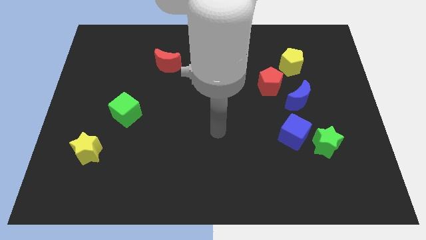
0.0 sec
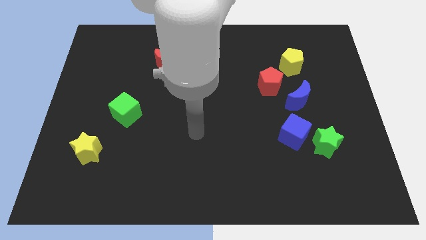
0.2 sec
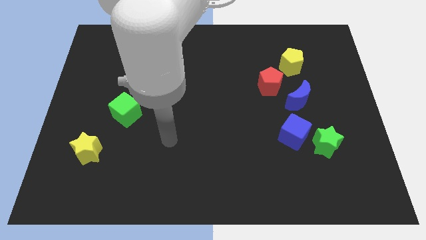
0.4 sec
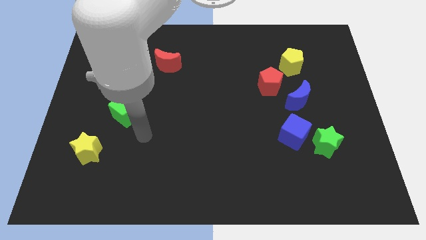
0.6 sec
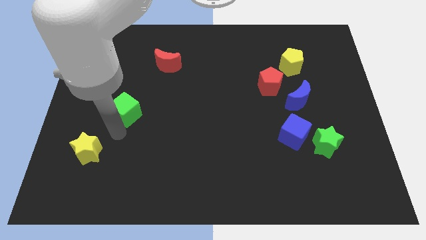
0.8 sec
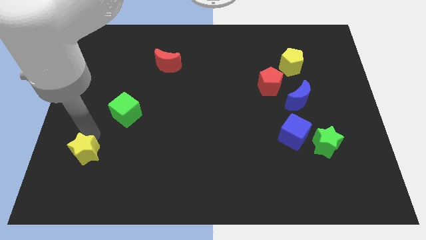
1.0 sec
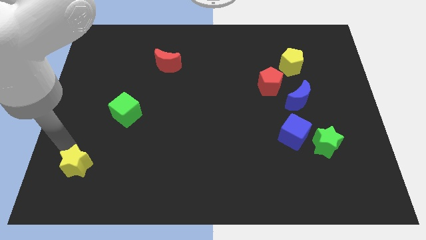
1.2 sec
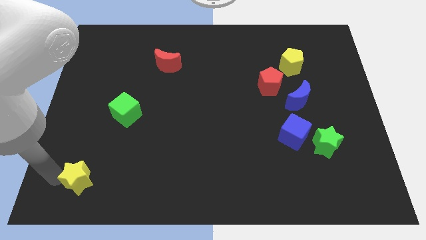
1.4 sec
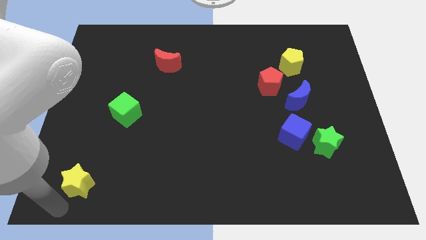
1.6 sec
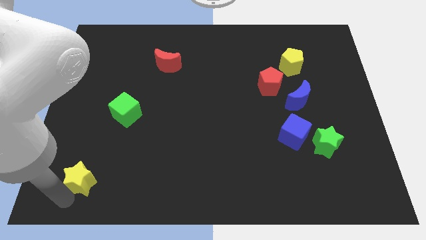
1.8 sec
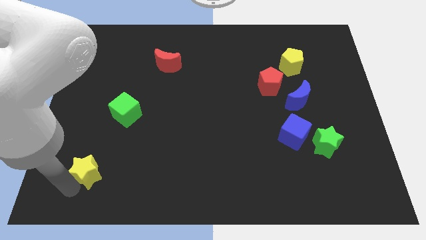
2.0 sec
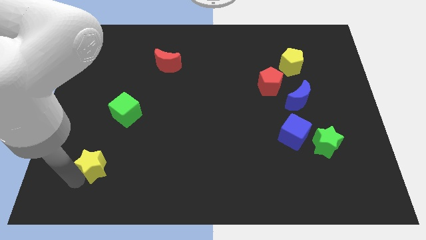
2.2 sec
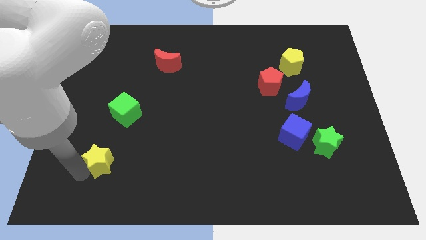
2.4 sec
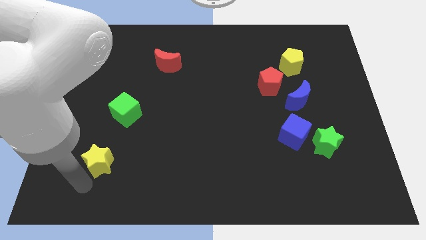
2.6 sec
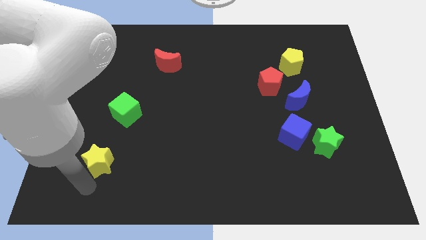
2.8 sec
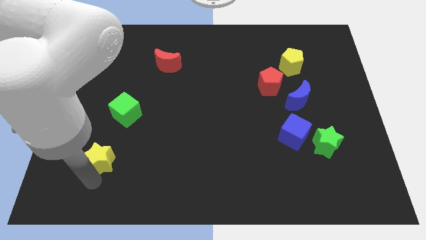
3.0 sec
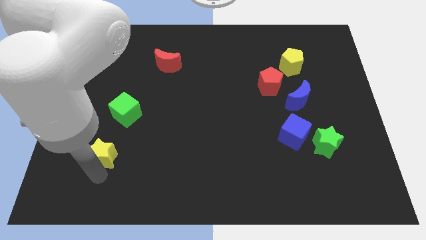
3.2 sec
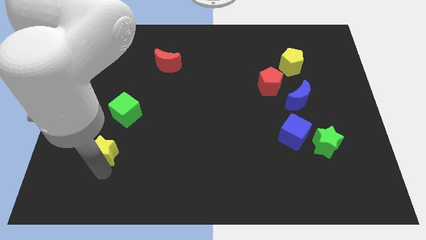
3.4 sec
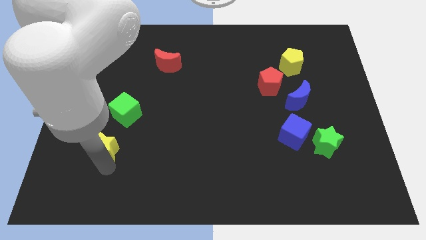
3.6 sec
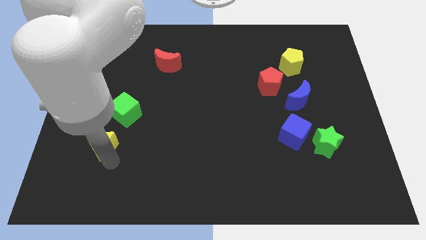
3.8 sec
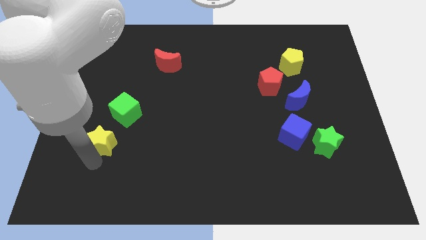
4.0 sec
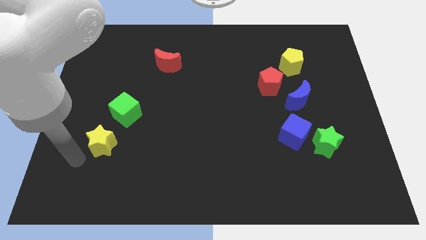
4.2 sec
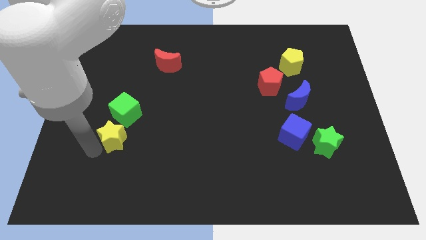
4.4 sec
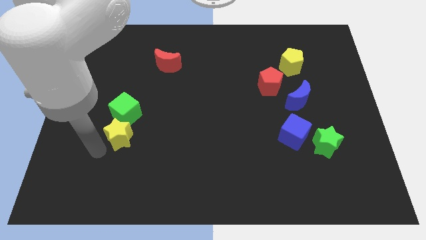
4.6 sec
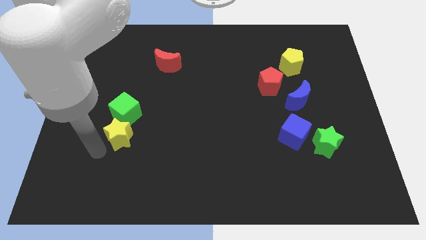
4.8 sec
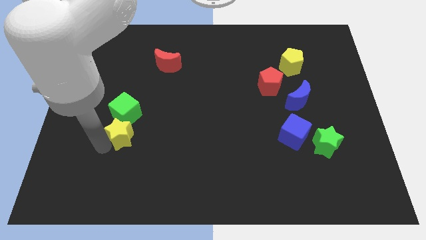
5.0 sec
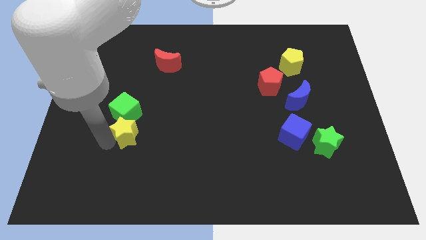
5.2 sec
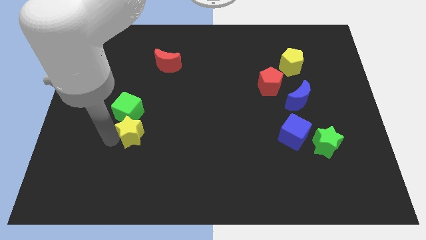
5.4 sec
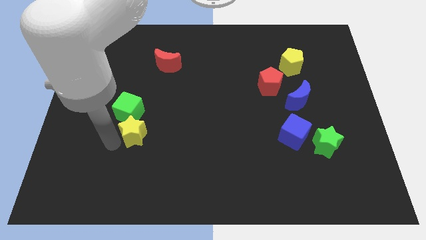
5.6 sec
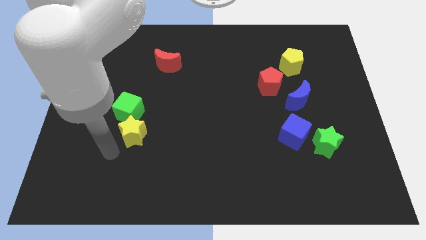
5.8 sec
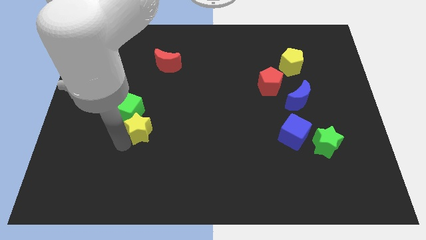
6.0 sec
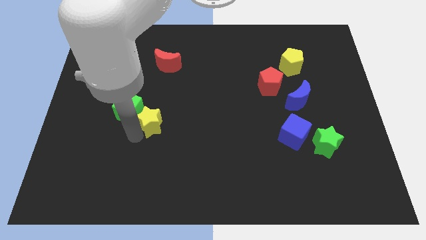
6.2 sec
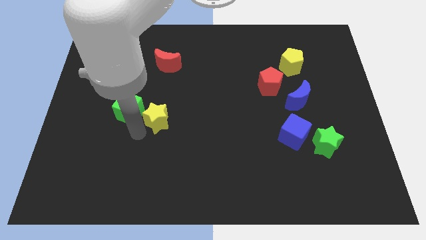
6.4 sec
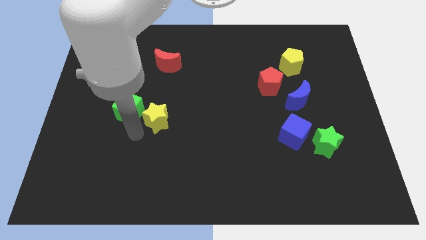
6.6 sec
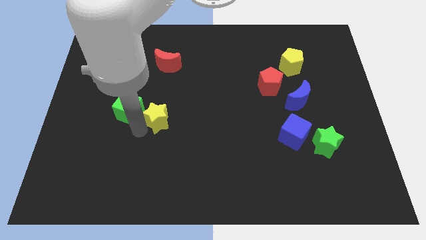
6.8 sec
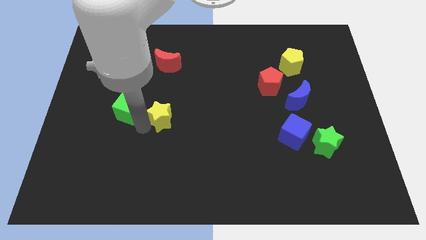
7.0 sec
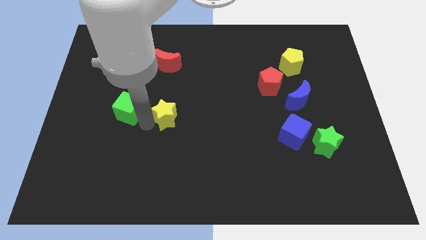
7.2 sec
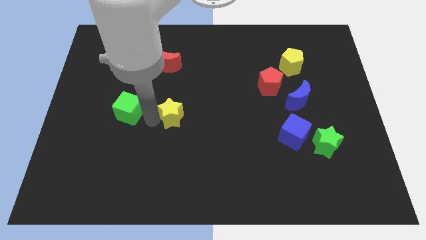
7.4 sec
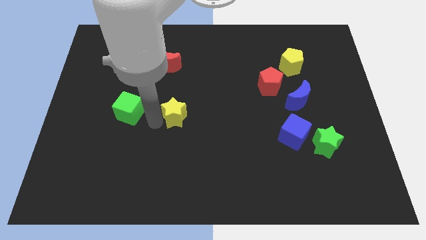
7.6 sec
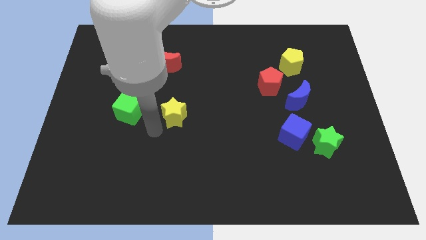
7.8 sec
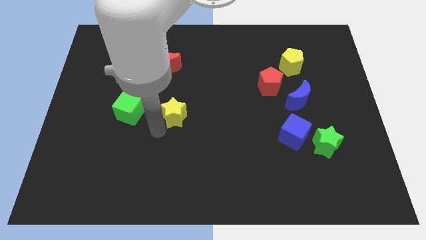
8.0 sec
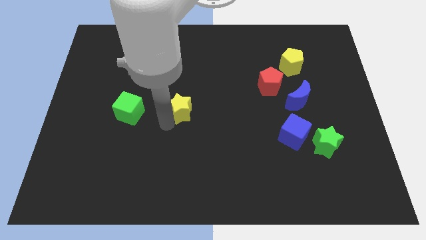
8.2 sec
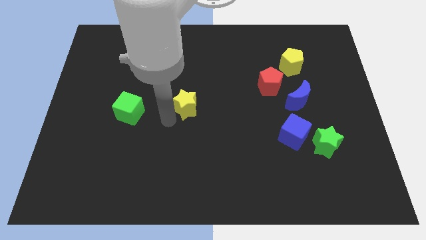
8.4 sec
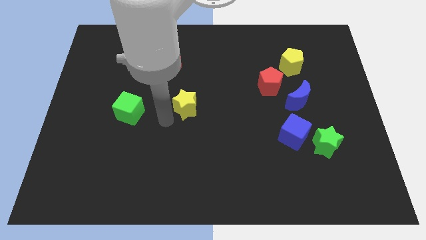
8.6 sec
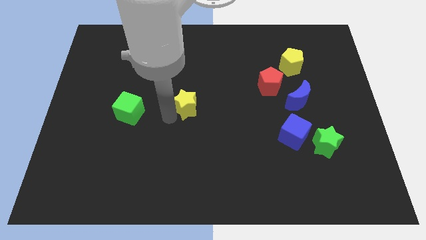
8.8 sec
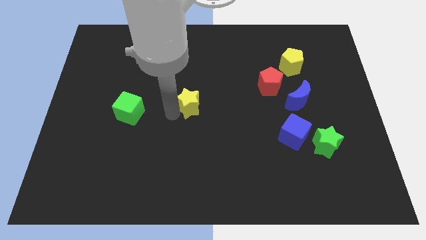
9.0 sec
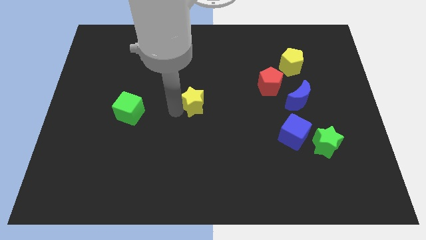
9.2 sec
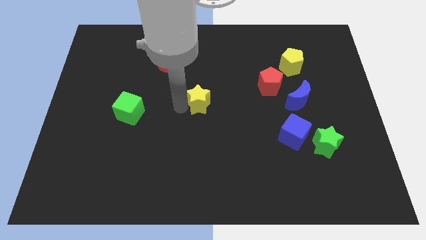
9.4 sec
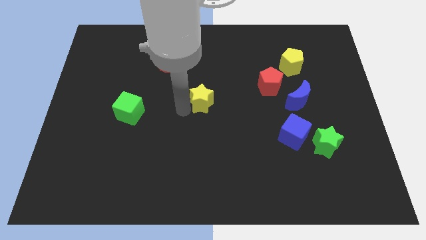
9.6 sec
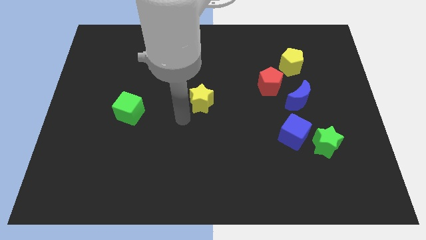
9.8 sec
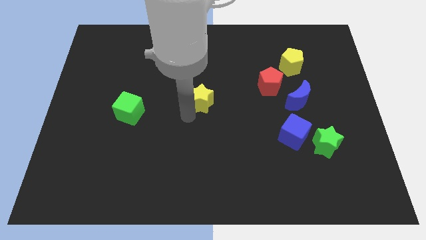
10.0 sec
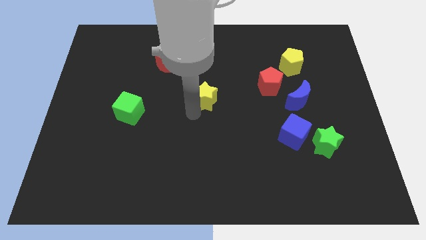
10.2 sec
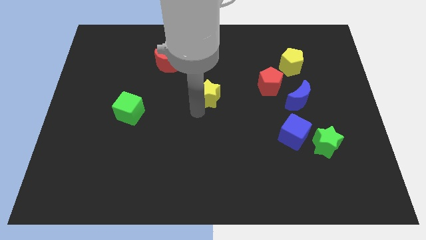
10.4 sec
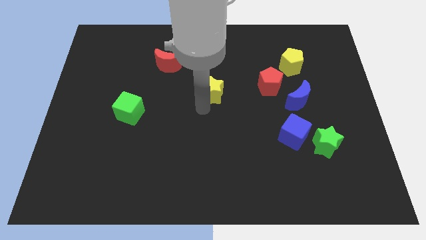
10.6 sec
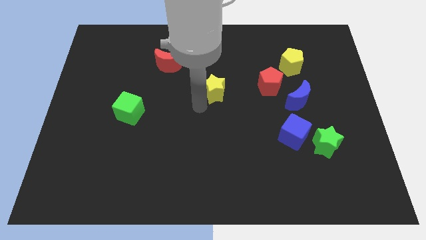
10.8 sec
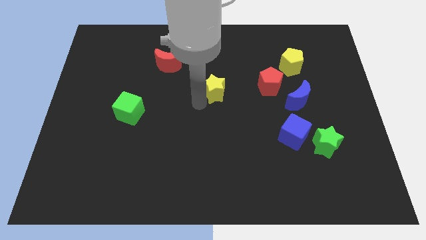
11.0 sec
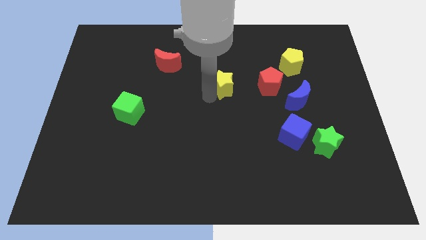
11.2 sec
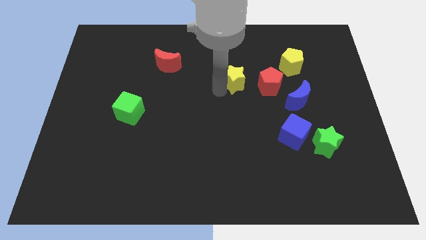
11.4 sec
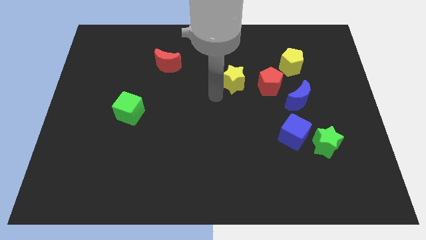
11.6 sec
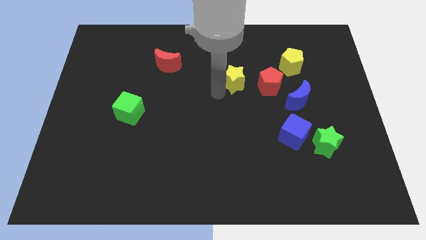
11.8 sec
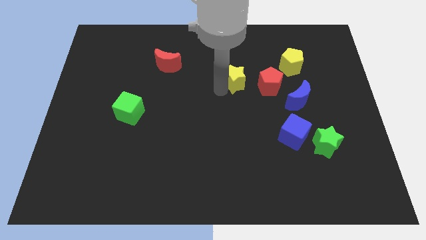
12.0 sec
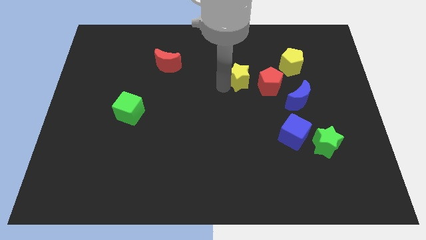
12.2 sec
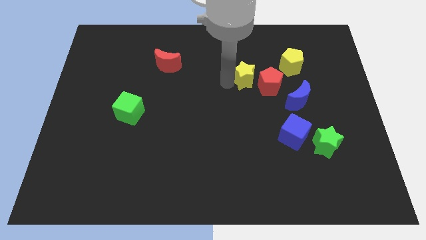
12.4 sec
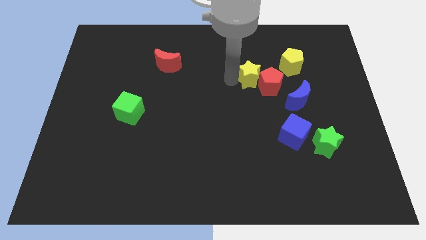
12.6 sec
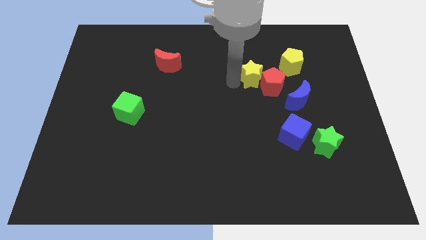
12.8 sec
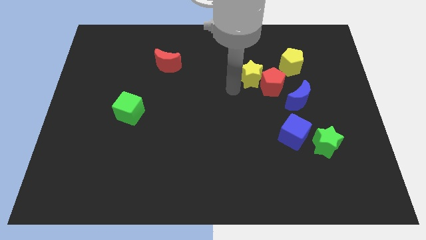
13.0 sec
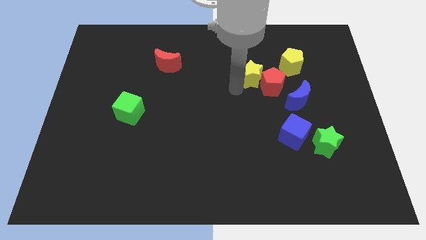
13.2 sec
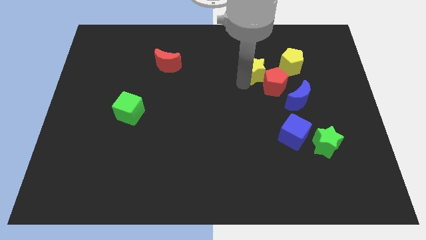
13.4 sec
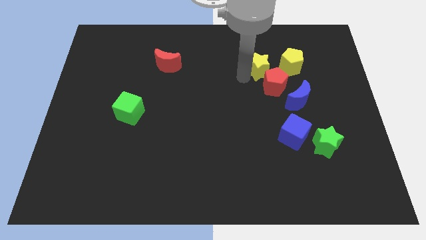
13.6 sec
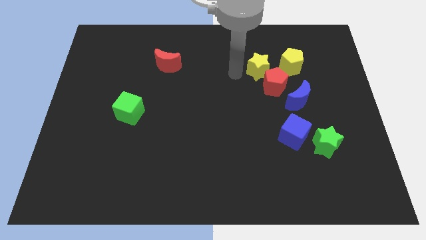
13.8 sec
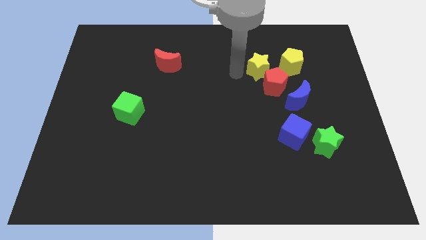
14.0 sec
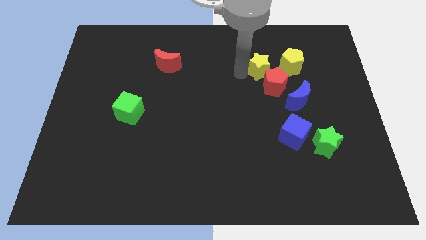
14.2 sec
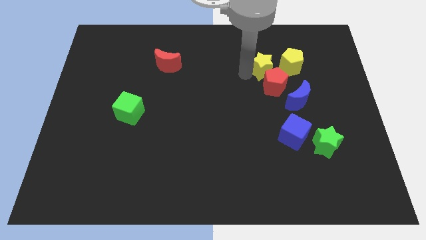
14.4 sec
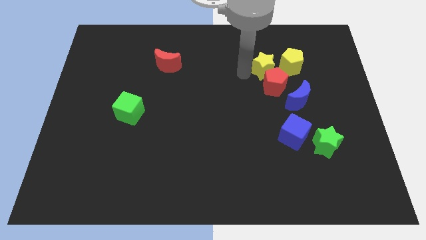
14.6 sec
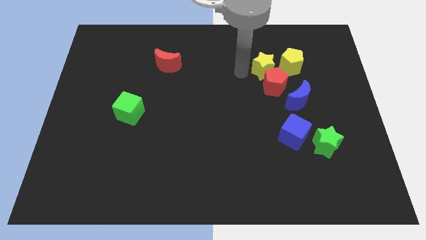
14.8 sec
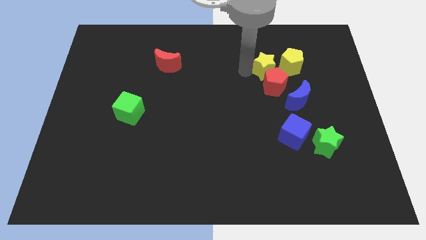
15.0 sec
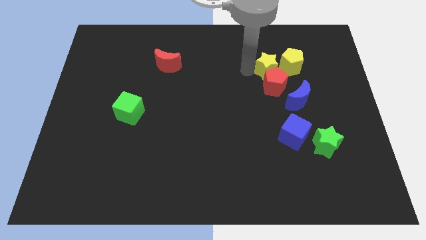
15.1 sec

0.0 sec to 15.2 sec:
push the yellow star towards the yellow pentagon
